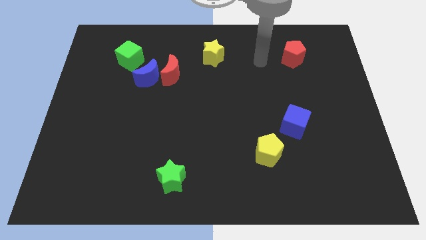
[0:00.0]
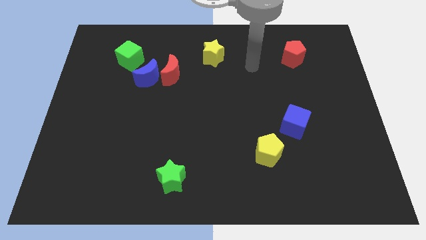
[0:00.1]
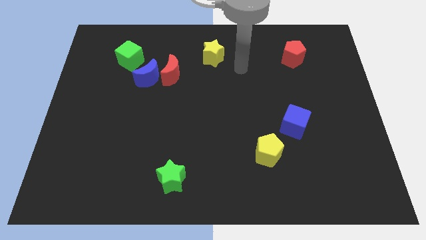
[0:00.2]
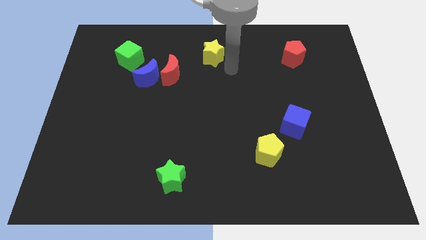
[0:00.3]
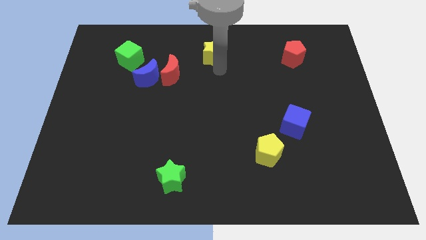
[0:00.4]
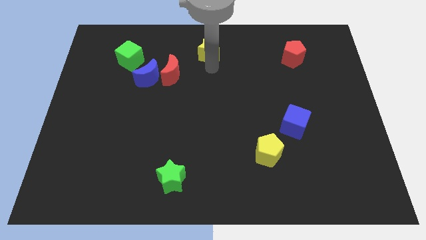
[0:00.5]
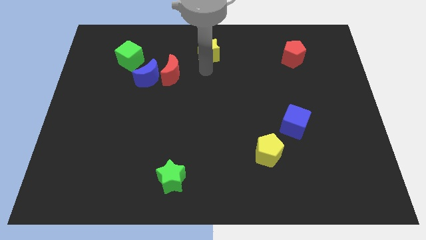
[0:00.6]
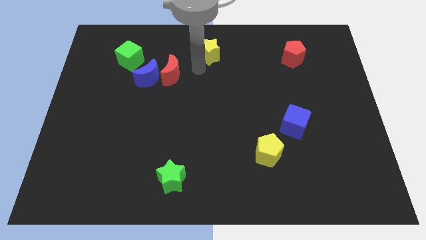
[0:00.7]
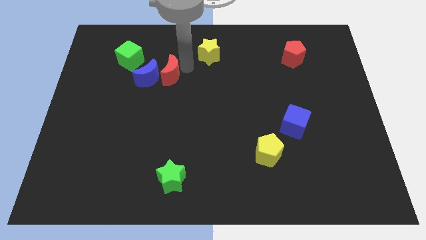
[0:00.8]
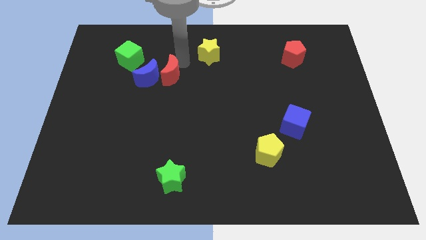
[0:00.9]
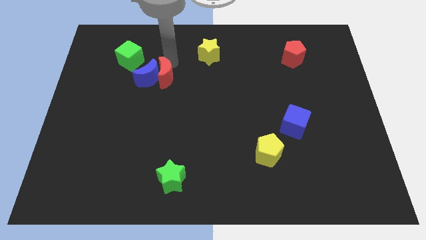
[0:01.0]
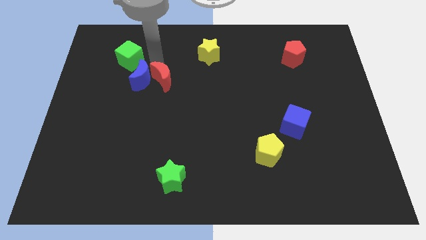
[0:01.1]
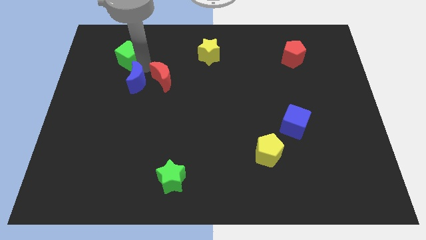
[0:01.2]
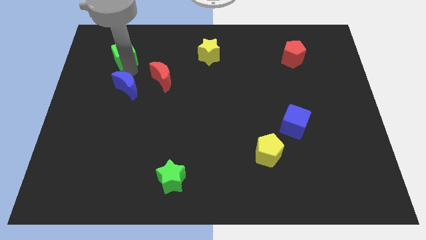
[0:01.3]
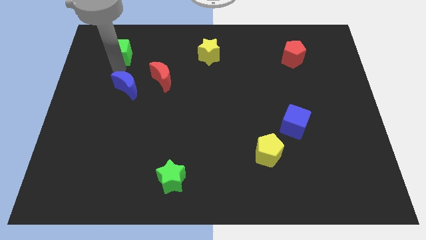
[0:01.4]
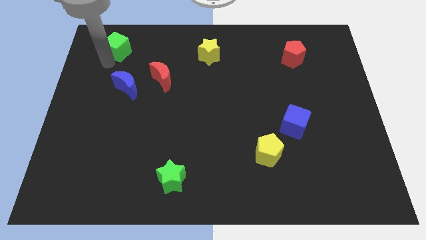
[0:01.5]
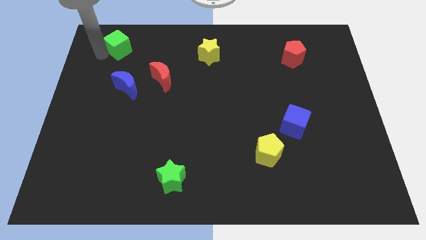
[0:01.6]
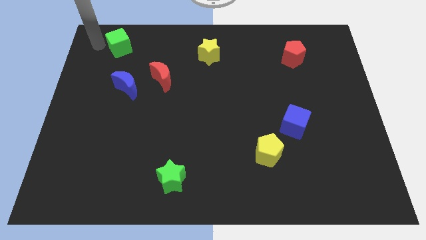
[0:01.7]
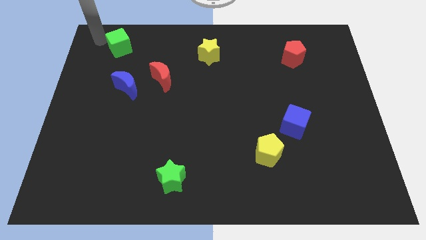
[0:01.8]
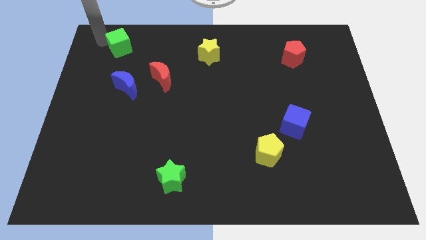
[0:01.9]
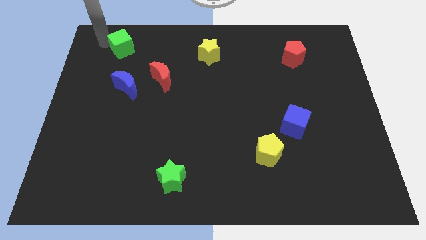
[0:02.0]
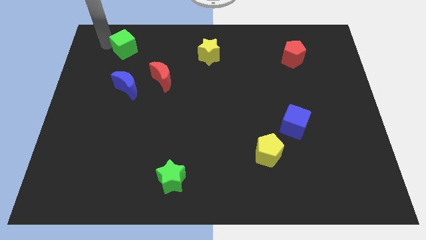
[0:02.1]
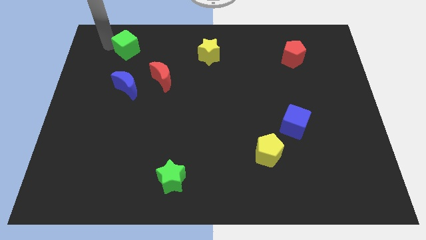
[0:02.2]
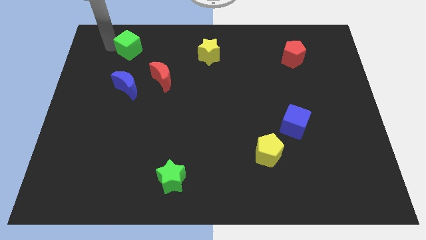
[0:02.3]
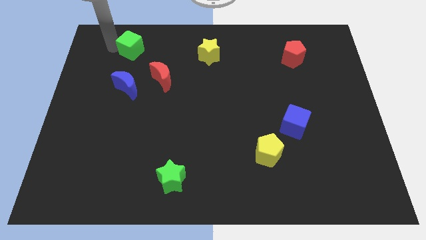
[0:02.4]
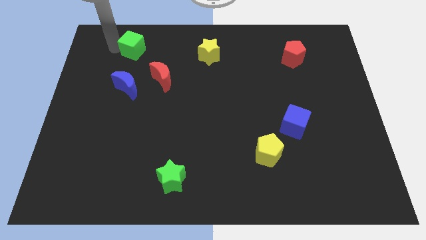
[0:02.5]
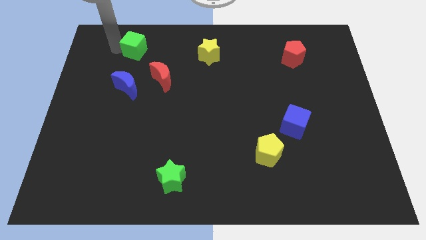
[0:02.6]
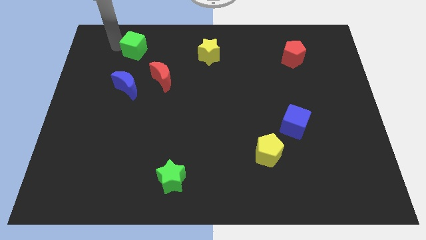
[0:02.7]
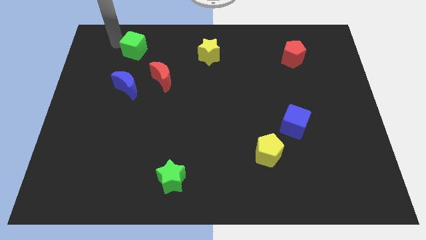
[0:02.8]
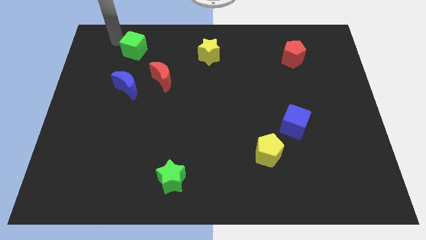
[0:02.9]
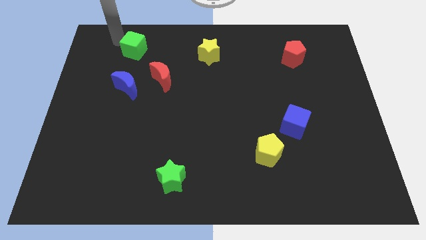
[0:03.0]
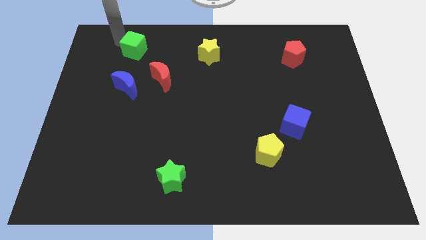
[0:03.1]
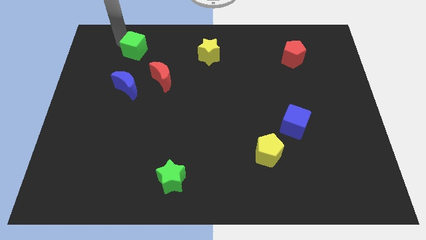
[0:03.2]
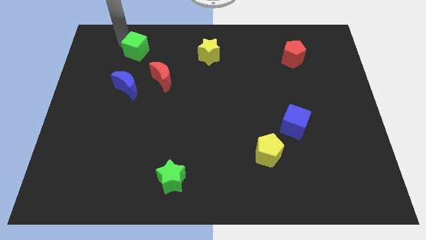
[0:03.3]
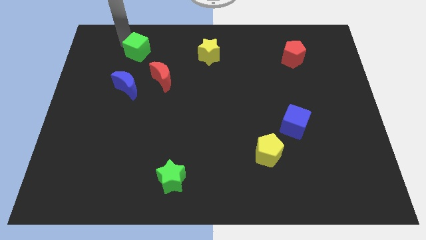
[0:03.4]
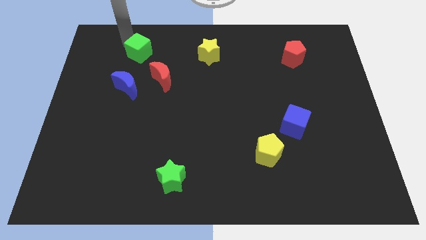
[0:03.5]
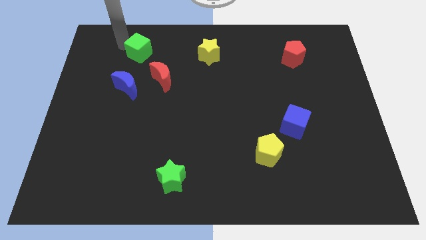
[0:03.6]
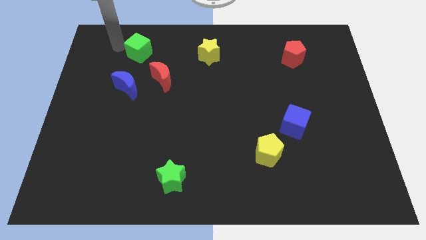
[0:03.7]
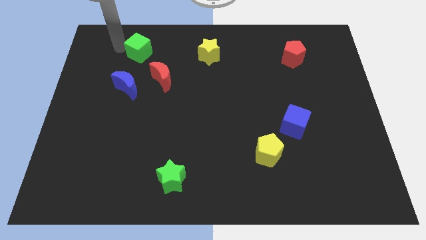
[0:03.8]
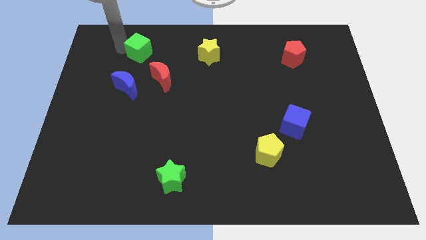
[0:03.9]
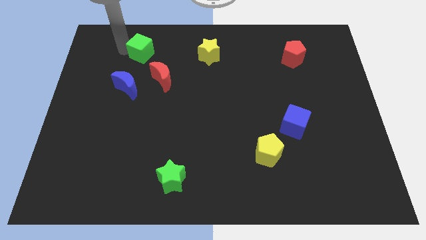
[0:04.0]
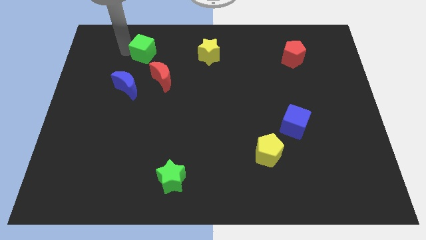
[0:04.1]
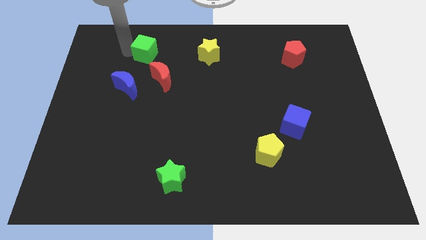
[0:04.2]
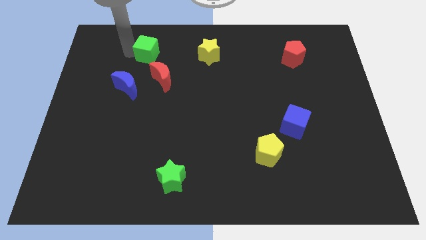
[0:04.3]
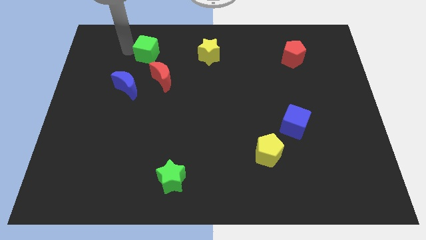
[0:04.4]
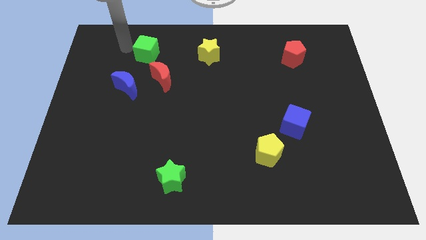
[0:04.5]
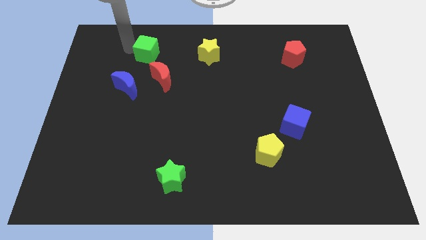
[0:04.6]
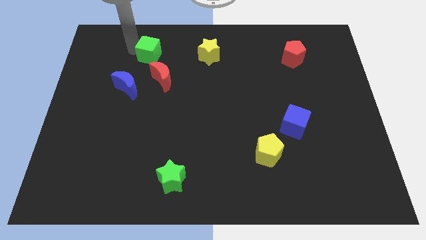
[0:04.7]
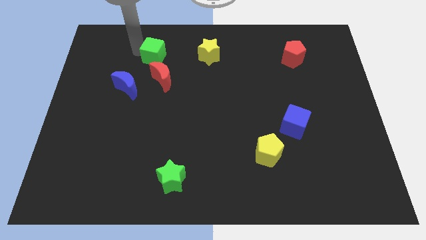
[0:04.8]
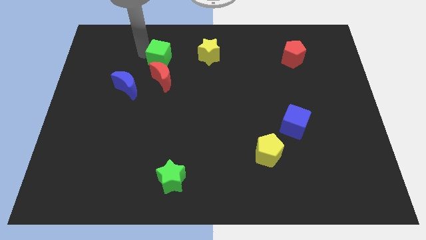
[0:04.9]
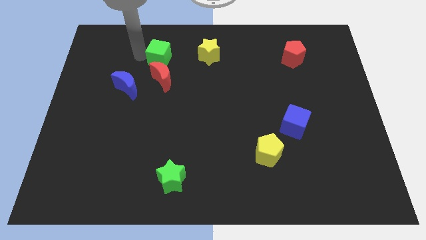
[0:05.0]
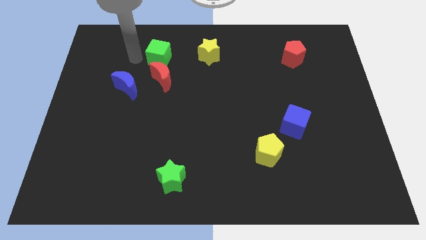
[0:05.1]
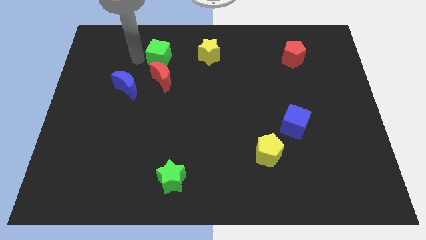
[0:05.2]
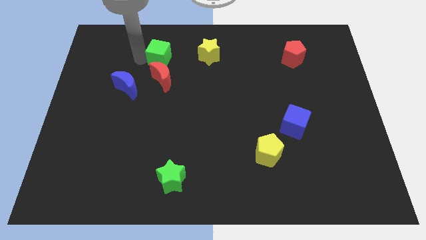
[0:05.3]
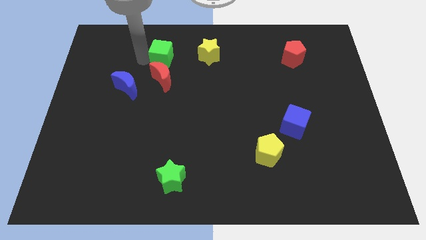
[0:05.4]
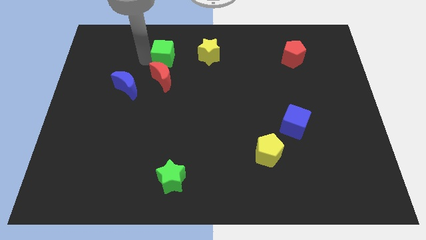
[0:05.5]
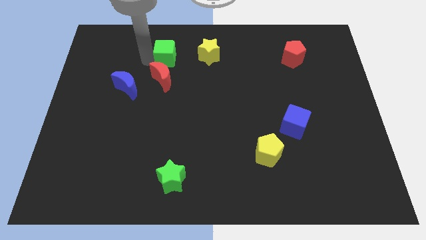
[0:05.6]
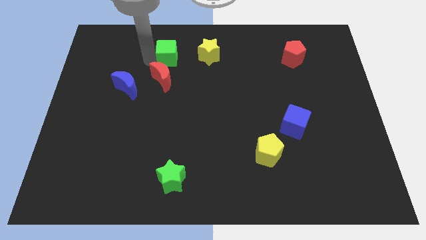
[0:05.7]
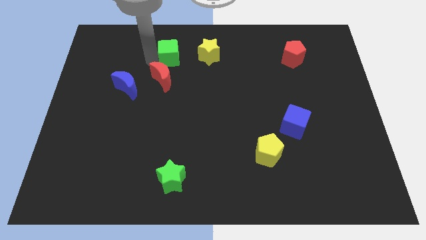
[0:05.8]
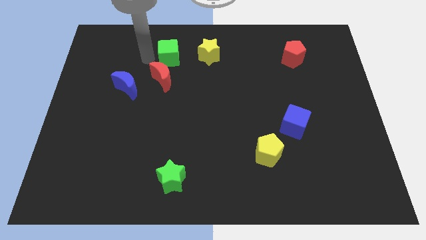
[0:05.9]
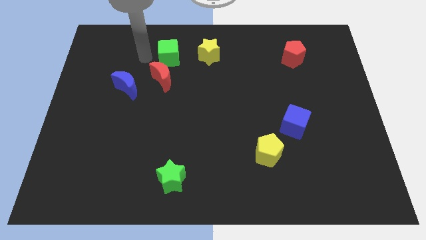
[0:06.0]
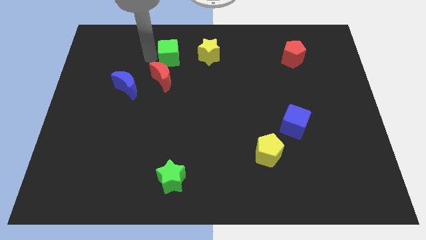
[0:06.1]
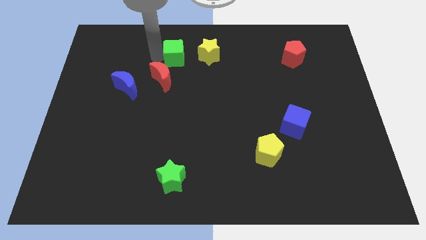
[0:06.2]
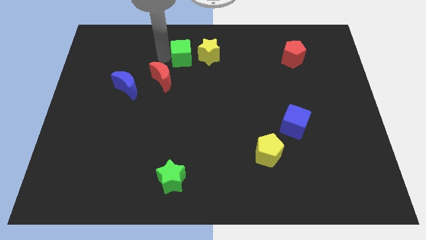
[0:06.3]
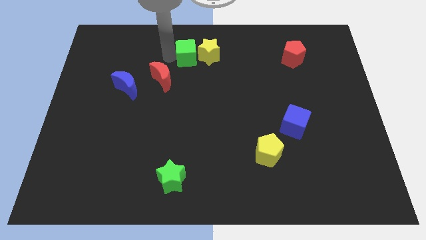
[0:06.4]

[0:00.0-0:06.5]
move the green cube close to the yellow star

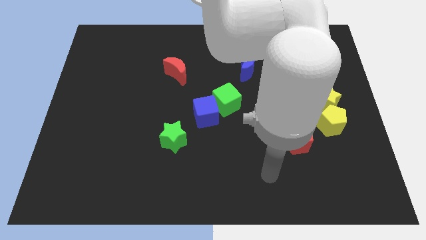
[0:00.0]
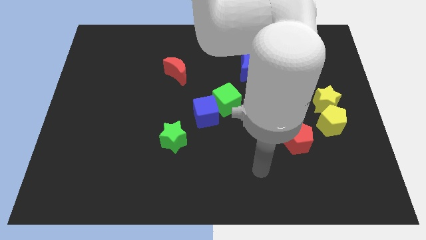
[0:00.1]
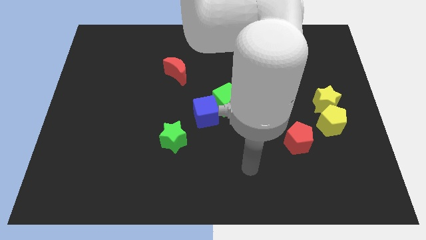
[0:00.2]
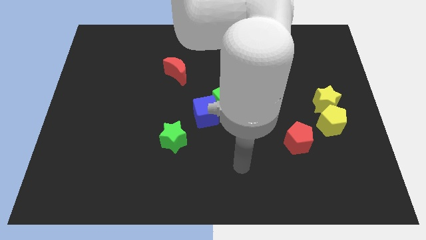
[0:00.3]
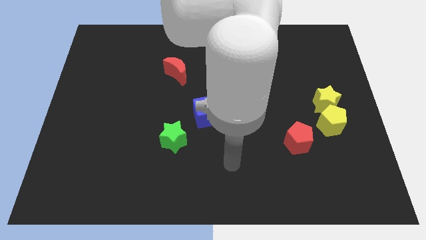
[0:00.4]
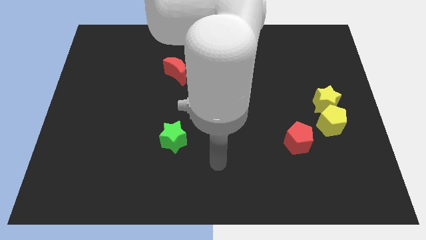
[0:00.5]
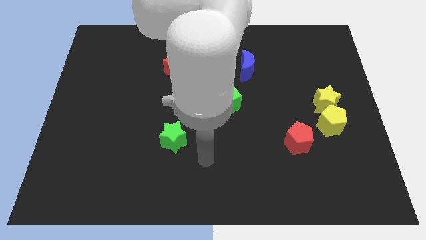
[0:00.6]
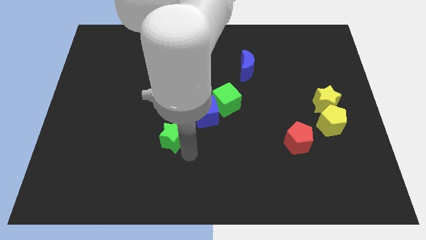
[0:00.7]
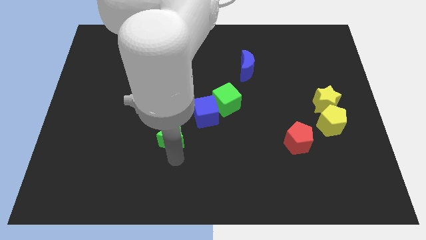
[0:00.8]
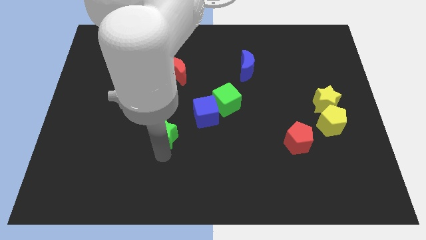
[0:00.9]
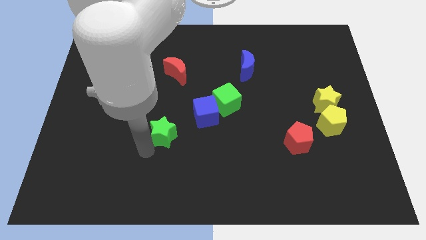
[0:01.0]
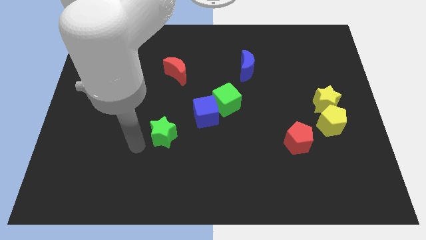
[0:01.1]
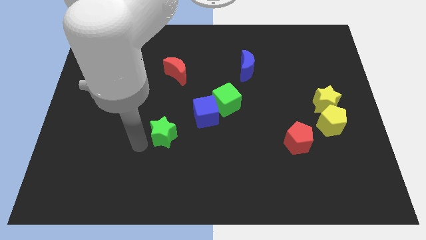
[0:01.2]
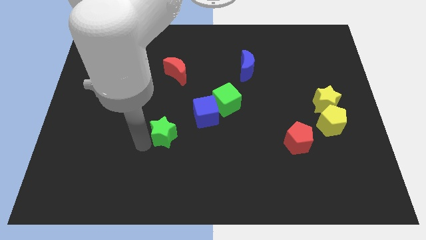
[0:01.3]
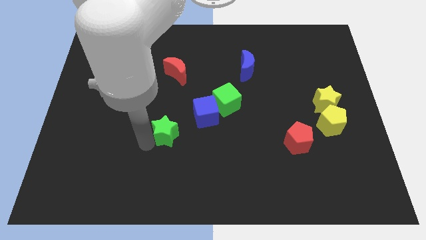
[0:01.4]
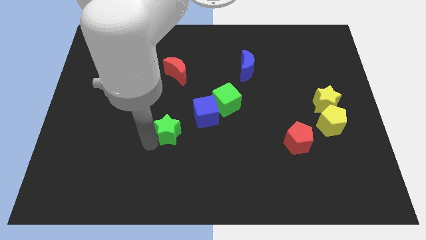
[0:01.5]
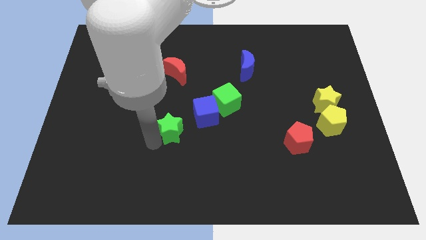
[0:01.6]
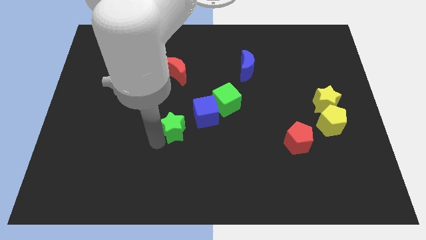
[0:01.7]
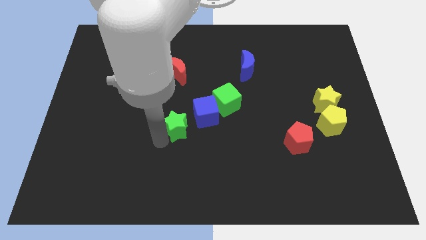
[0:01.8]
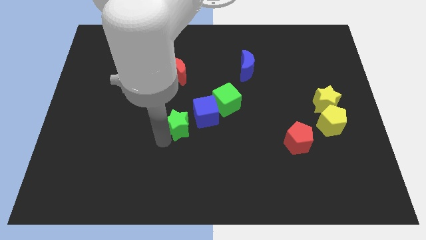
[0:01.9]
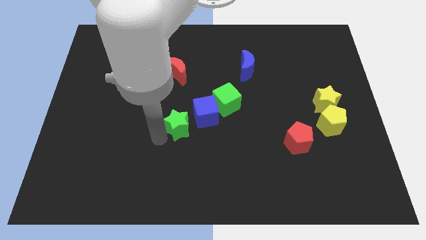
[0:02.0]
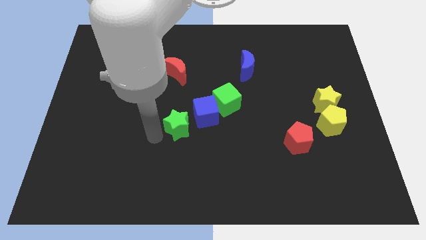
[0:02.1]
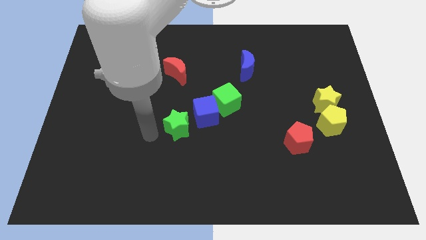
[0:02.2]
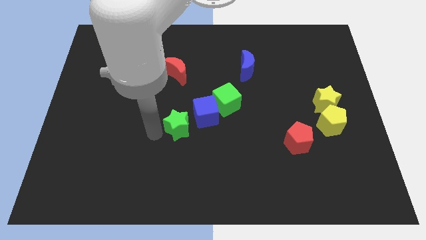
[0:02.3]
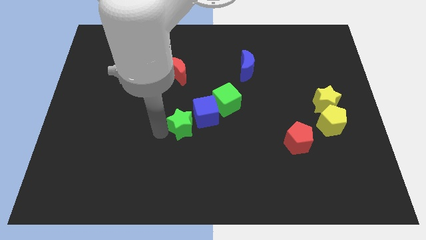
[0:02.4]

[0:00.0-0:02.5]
put the green star towards the blue cube
